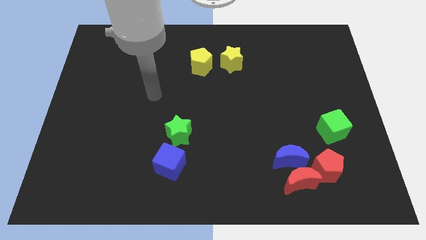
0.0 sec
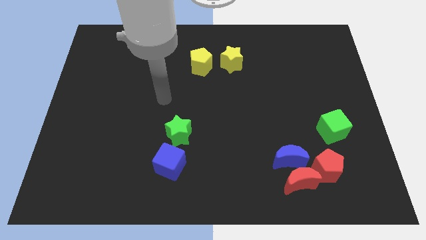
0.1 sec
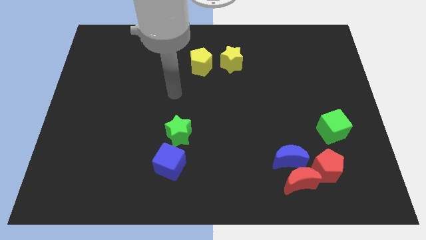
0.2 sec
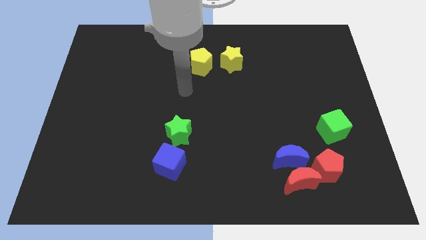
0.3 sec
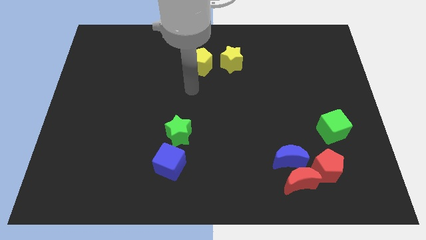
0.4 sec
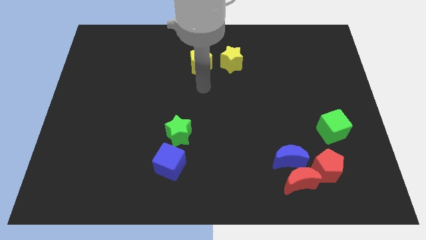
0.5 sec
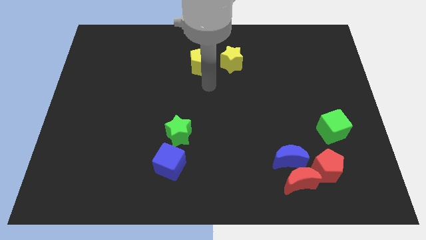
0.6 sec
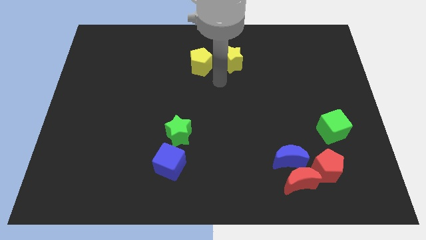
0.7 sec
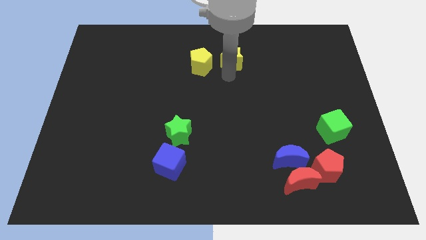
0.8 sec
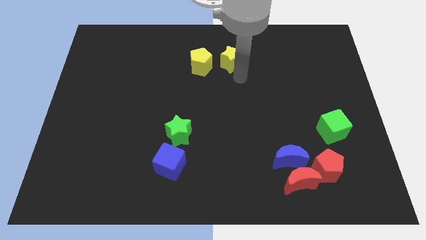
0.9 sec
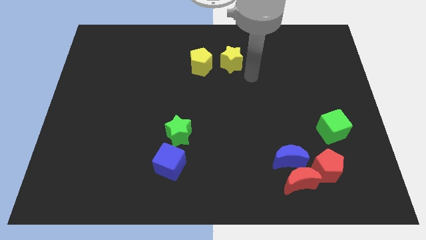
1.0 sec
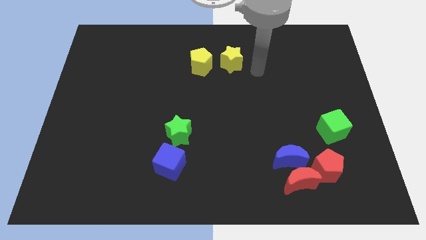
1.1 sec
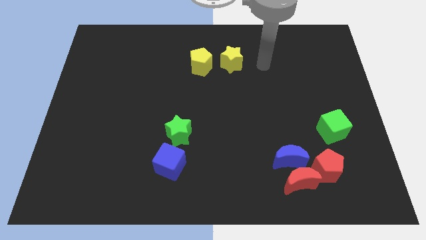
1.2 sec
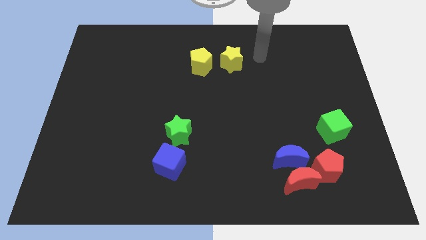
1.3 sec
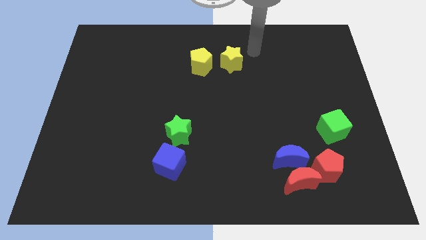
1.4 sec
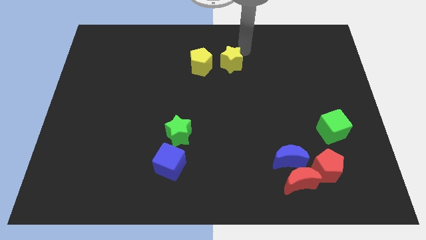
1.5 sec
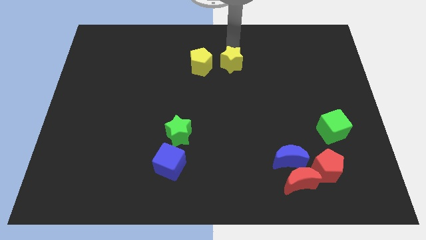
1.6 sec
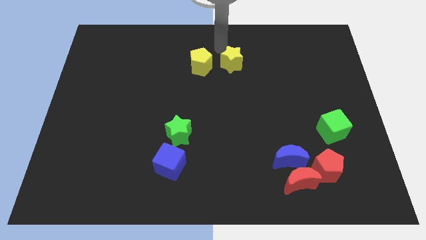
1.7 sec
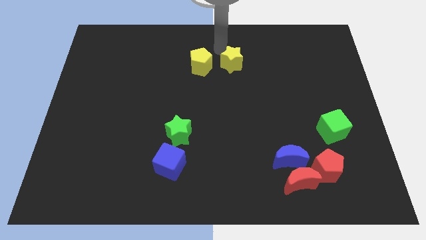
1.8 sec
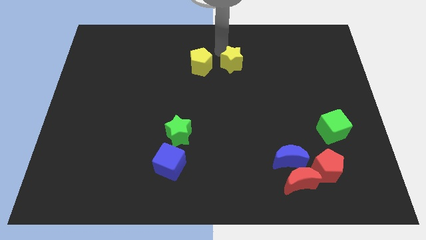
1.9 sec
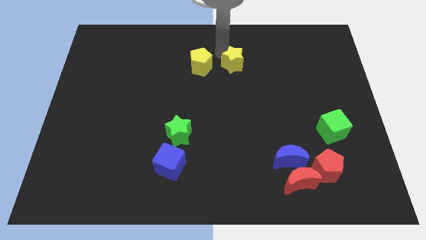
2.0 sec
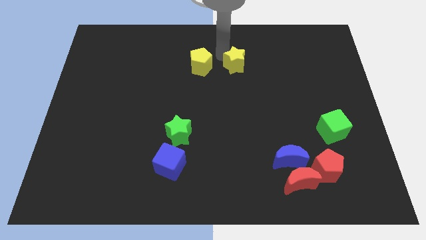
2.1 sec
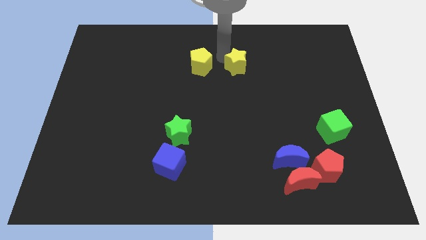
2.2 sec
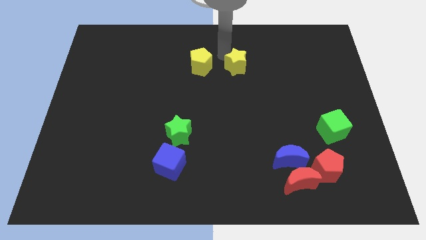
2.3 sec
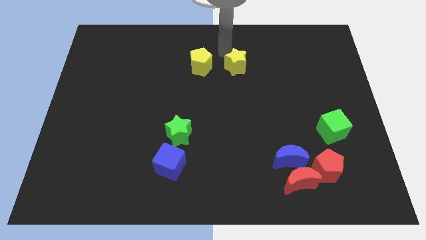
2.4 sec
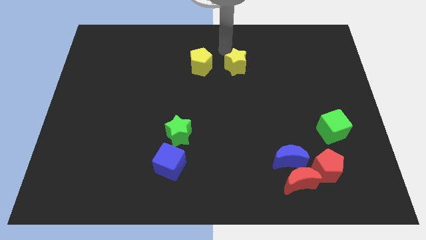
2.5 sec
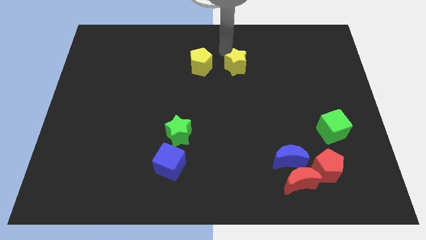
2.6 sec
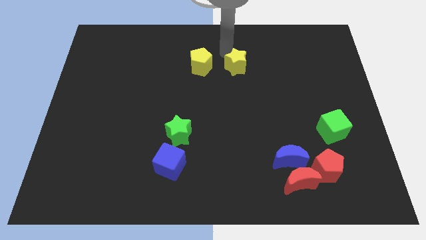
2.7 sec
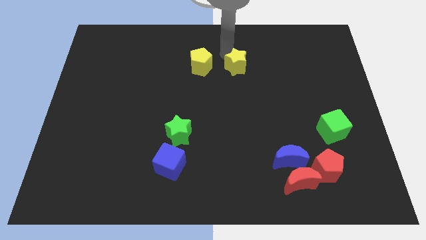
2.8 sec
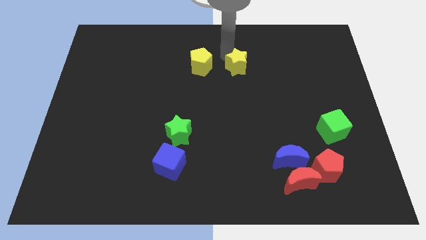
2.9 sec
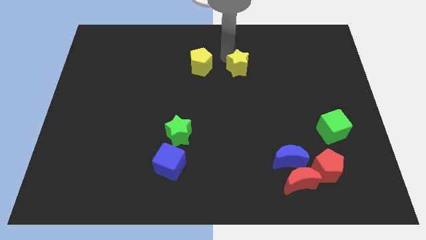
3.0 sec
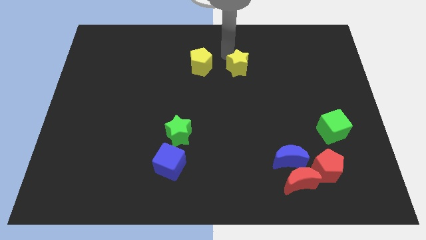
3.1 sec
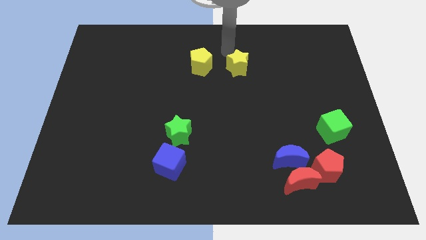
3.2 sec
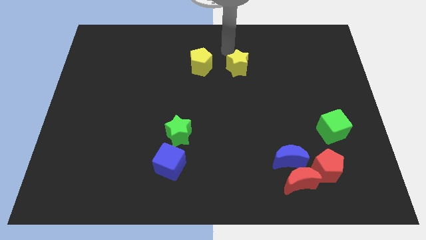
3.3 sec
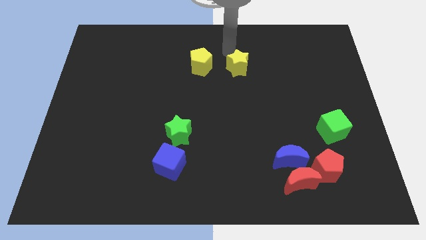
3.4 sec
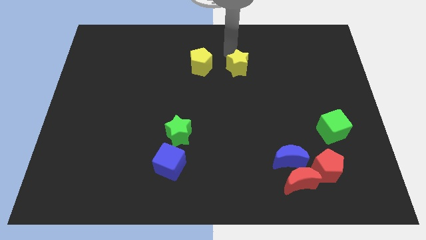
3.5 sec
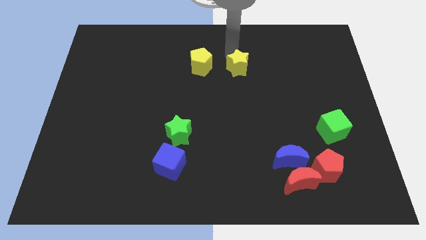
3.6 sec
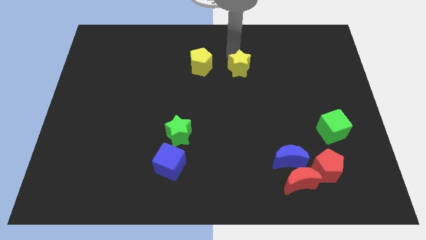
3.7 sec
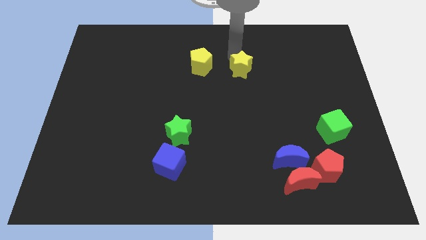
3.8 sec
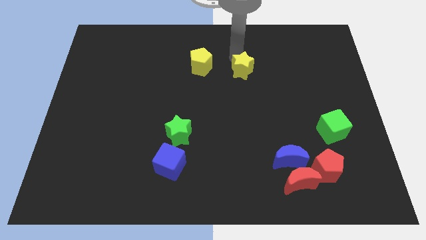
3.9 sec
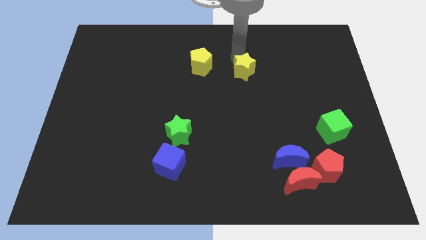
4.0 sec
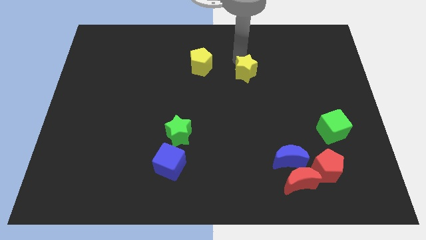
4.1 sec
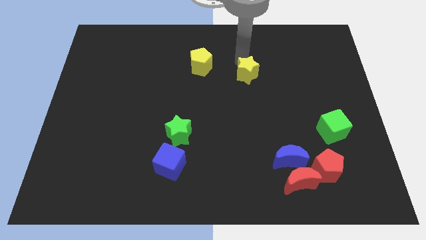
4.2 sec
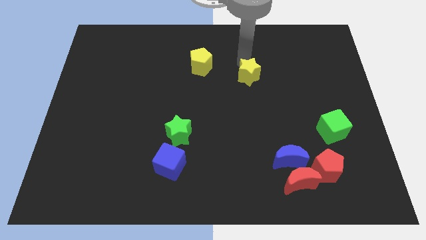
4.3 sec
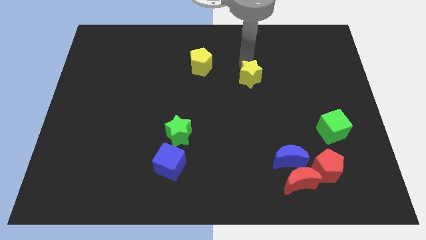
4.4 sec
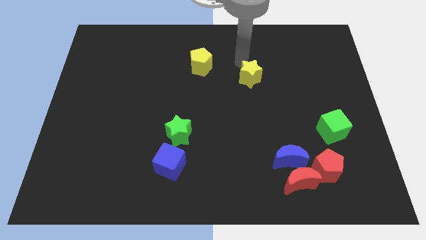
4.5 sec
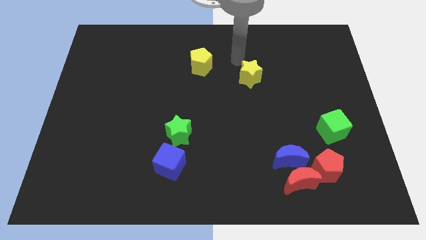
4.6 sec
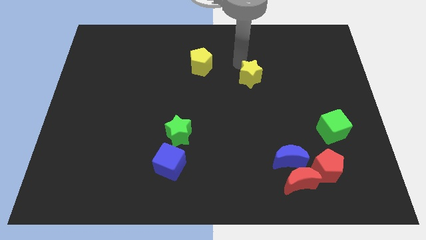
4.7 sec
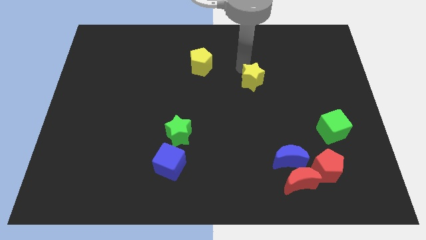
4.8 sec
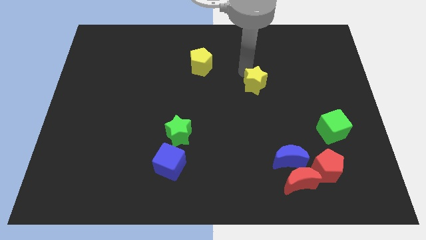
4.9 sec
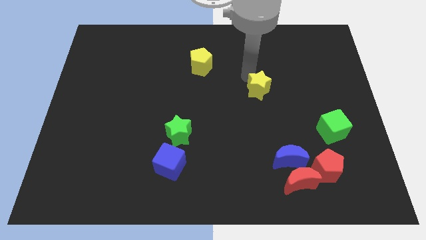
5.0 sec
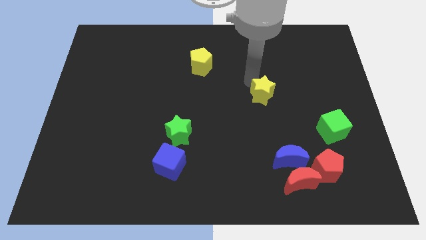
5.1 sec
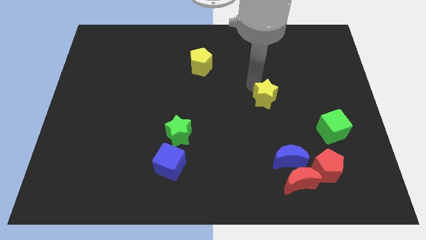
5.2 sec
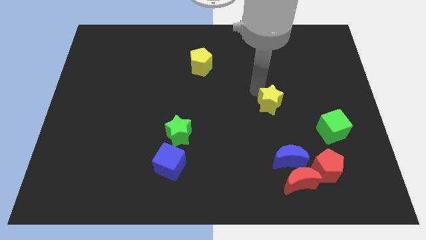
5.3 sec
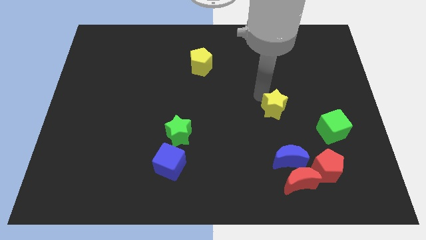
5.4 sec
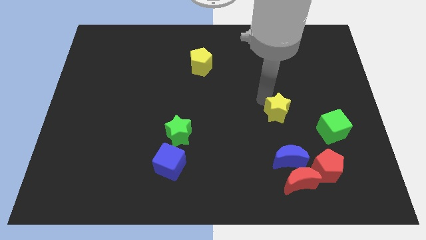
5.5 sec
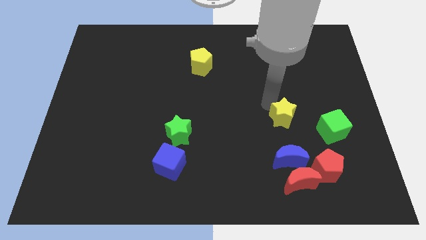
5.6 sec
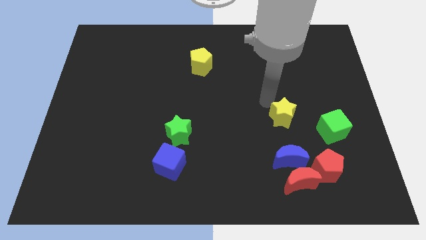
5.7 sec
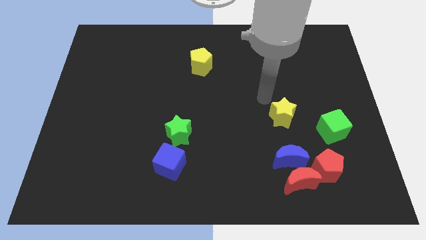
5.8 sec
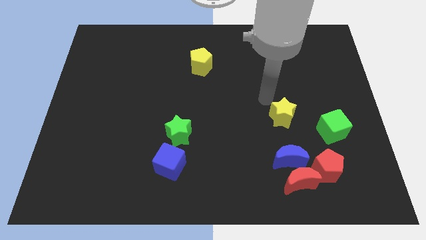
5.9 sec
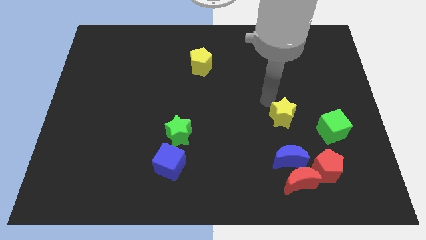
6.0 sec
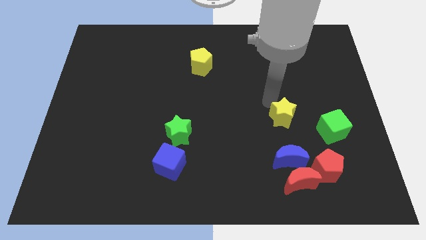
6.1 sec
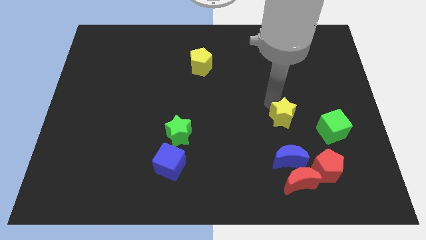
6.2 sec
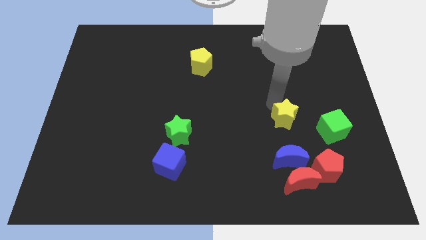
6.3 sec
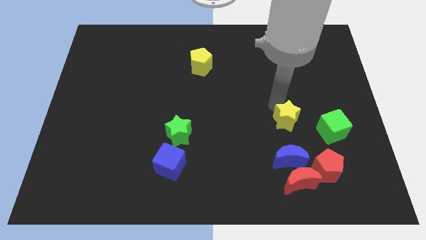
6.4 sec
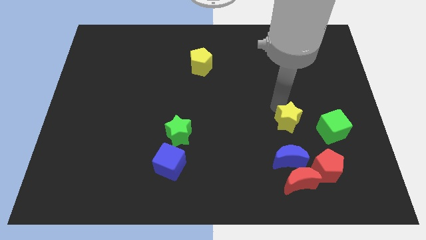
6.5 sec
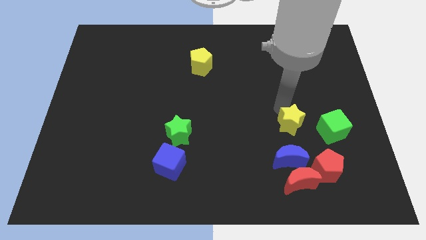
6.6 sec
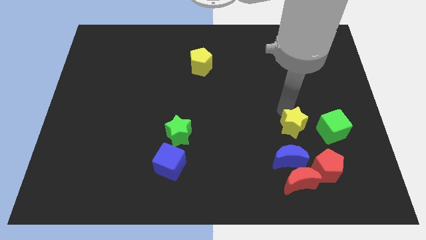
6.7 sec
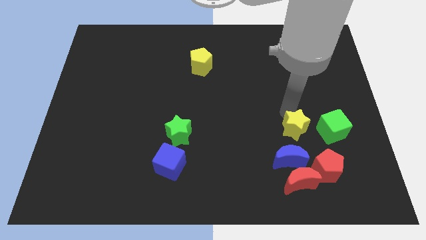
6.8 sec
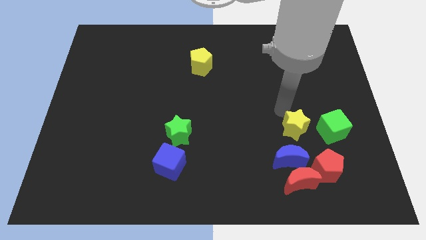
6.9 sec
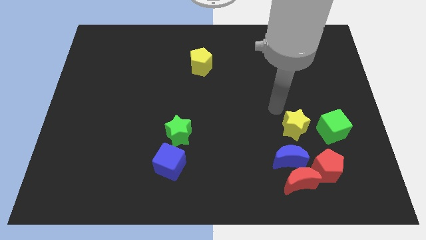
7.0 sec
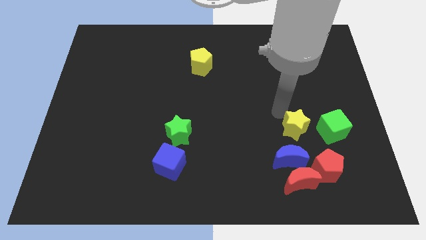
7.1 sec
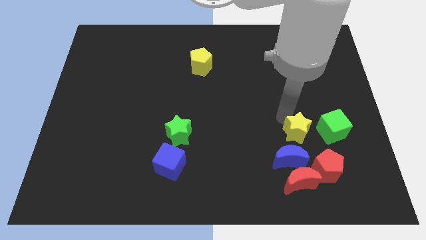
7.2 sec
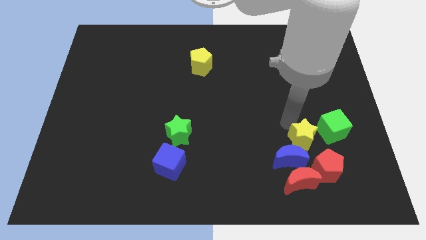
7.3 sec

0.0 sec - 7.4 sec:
slide the yellow star diagonally down and to the left of the green cube
